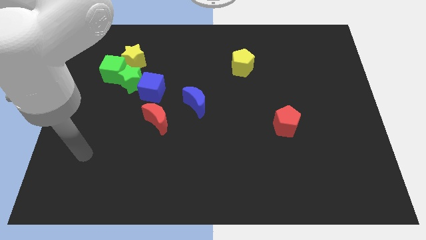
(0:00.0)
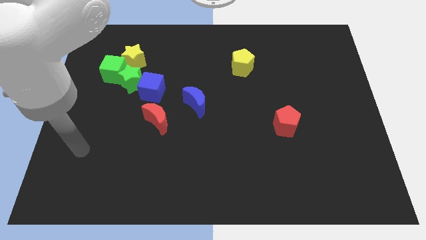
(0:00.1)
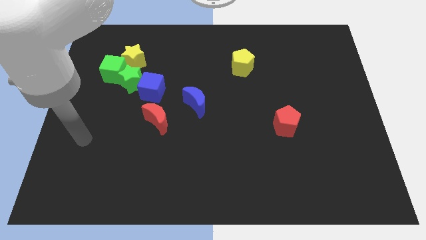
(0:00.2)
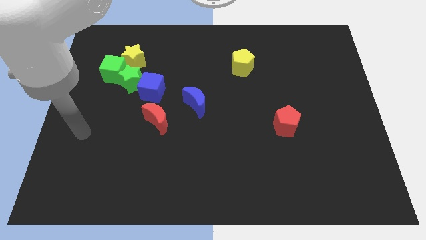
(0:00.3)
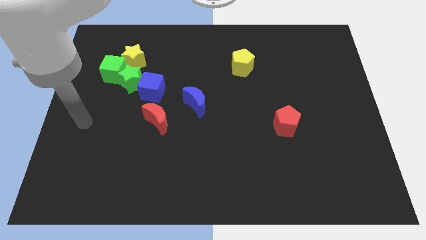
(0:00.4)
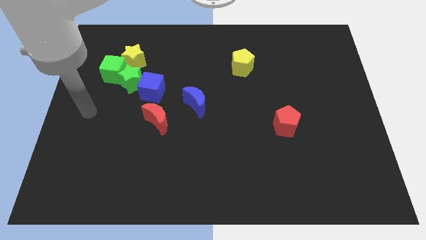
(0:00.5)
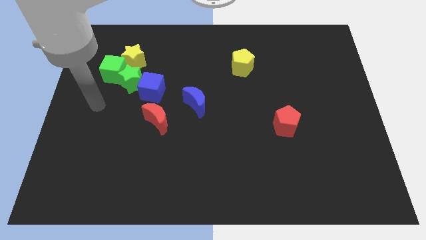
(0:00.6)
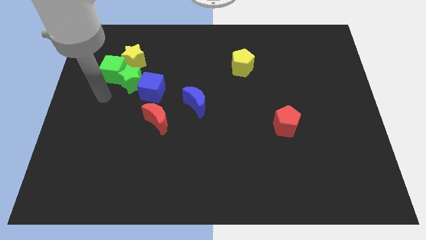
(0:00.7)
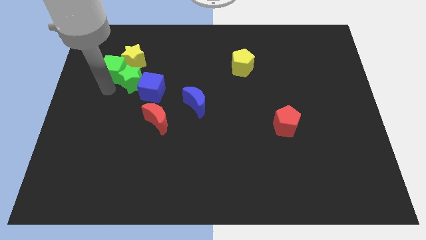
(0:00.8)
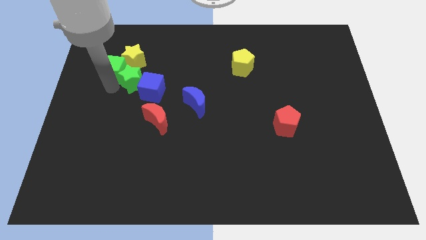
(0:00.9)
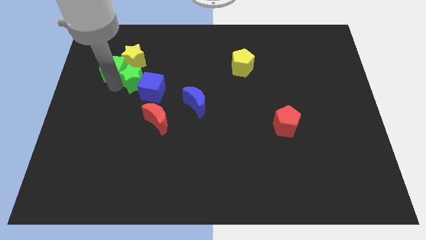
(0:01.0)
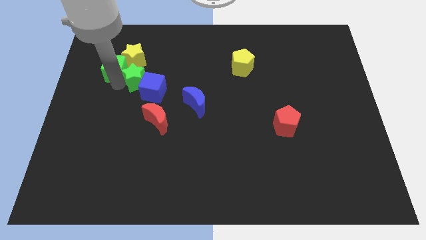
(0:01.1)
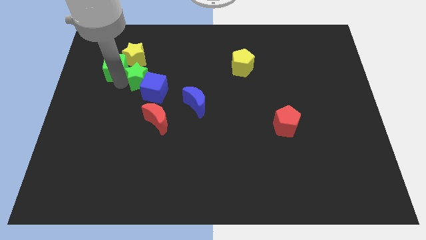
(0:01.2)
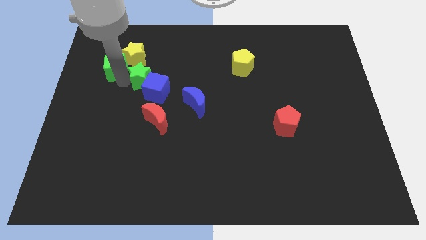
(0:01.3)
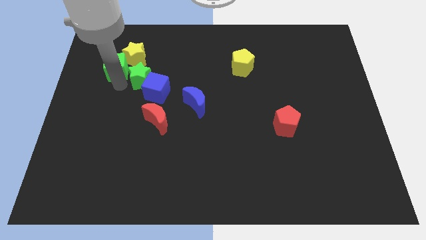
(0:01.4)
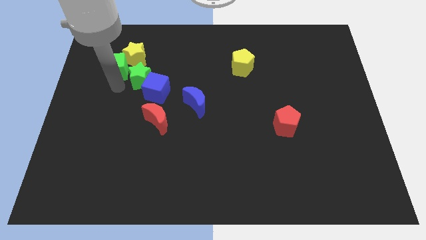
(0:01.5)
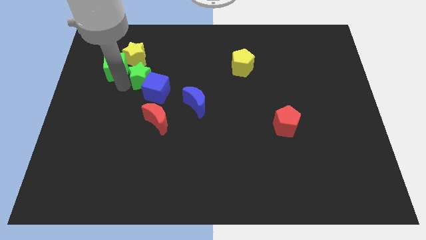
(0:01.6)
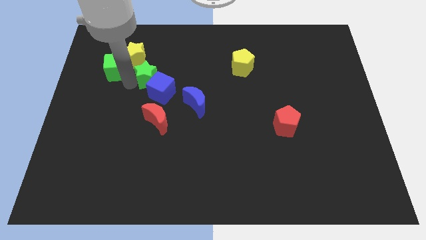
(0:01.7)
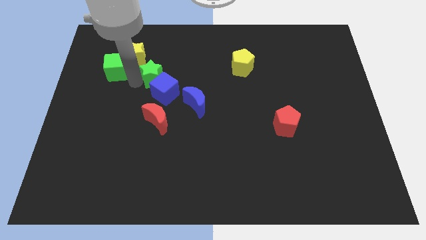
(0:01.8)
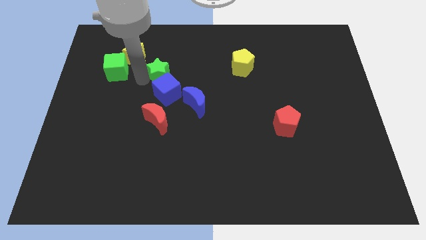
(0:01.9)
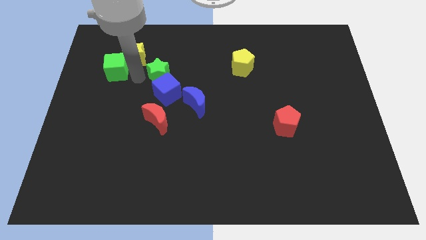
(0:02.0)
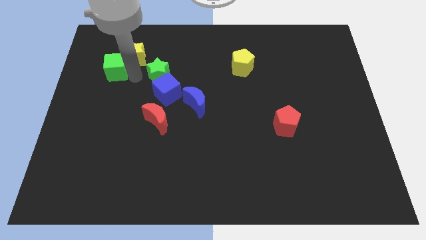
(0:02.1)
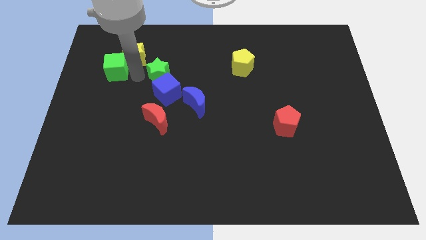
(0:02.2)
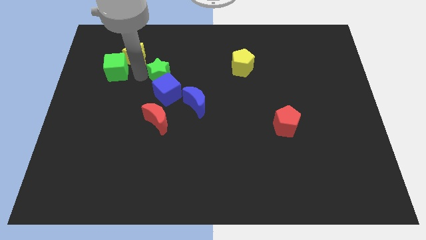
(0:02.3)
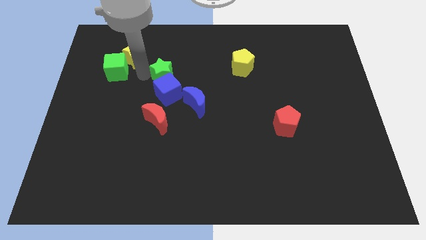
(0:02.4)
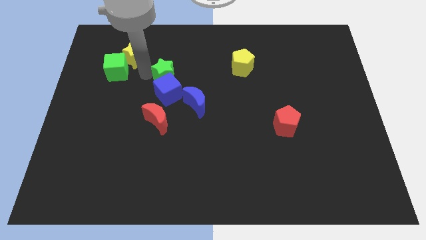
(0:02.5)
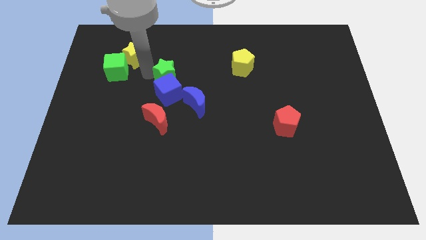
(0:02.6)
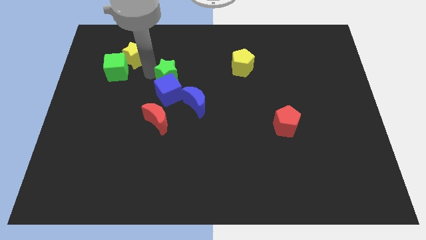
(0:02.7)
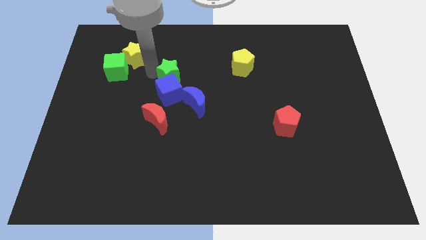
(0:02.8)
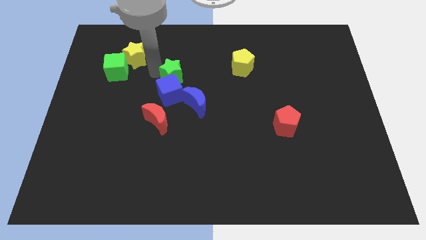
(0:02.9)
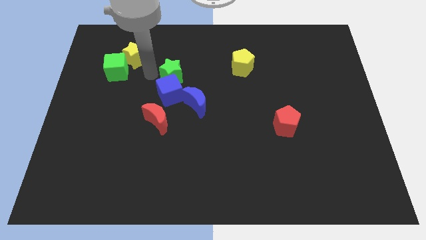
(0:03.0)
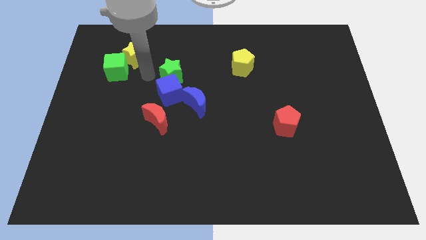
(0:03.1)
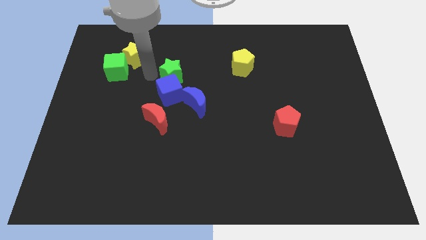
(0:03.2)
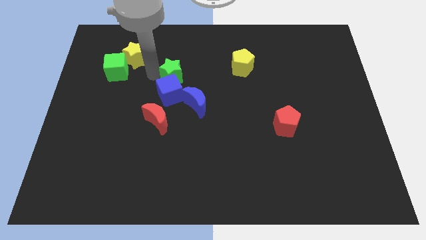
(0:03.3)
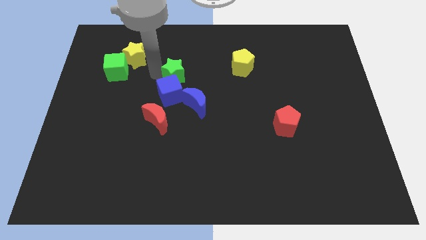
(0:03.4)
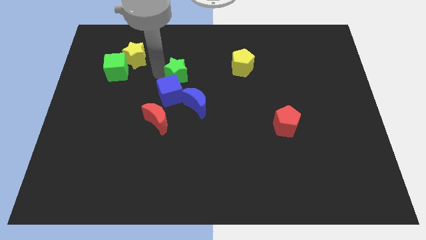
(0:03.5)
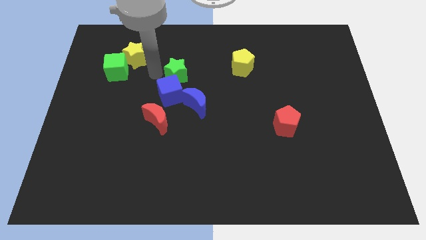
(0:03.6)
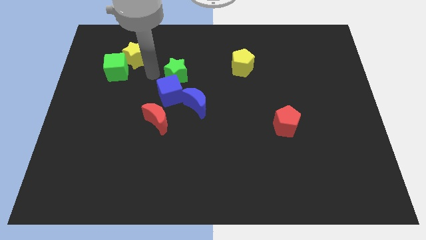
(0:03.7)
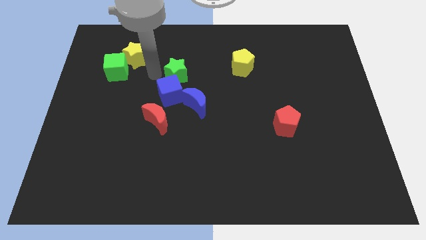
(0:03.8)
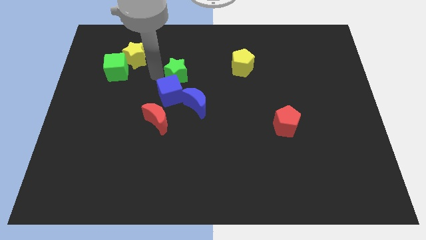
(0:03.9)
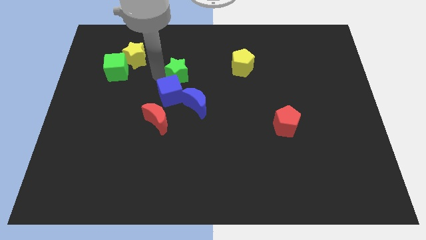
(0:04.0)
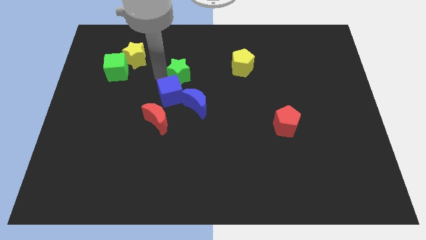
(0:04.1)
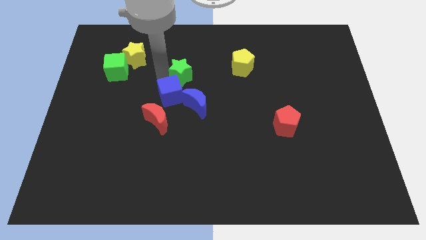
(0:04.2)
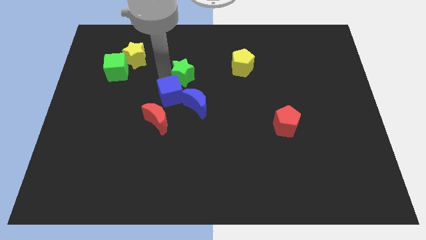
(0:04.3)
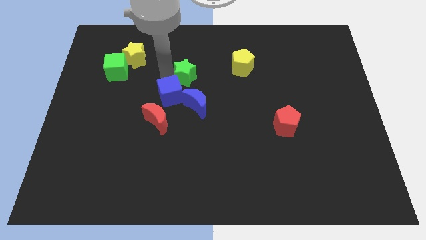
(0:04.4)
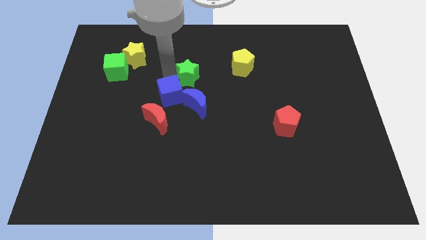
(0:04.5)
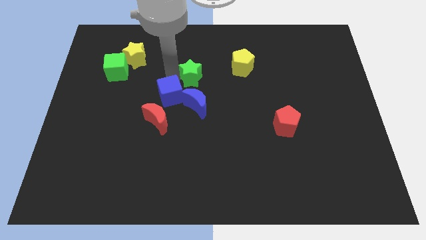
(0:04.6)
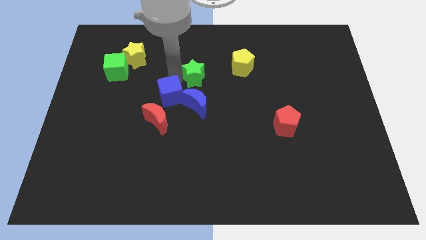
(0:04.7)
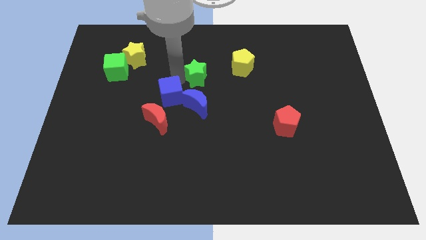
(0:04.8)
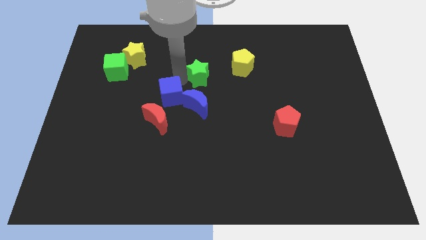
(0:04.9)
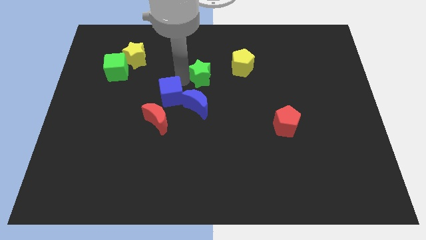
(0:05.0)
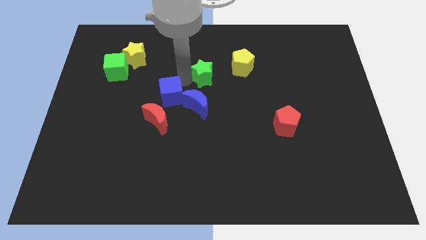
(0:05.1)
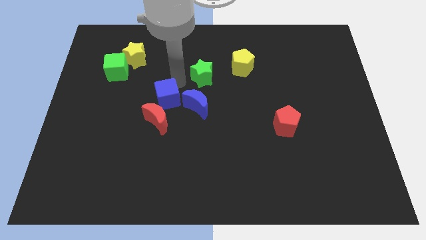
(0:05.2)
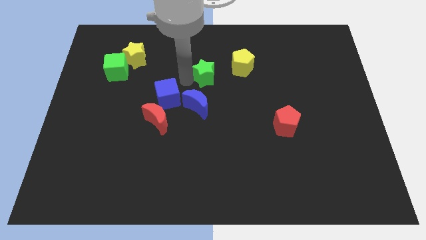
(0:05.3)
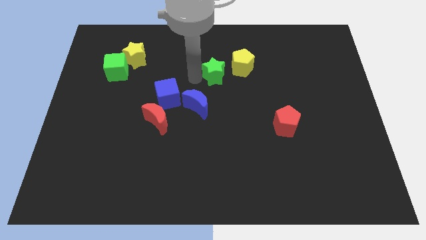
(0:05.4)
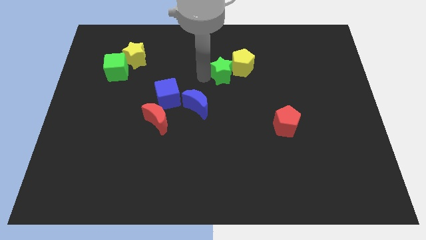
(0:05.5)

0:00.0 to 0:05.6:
slide the green star close to the yellow pentagon

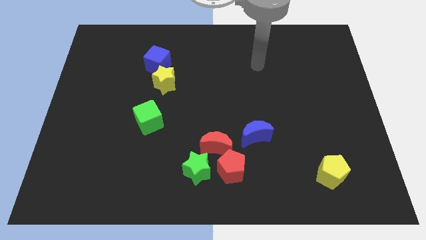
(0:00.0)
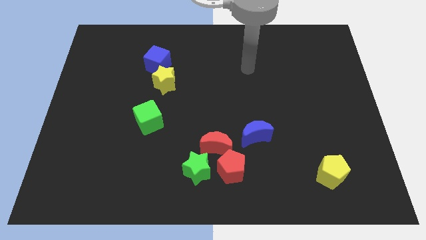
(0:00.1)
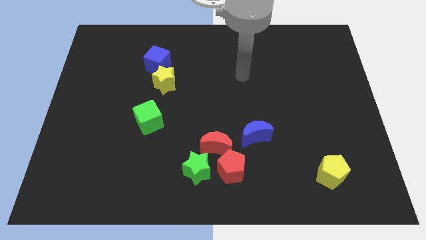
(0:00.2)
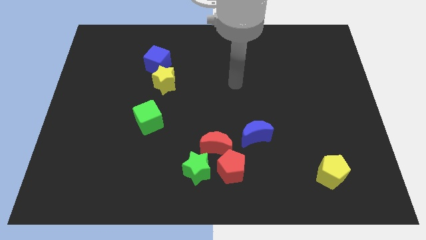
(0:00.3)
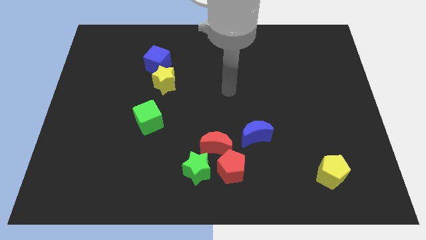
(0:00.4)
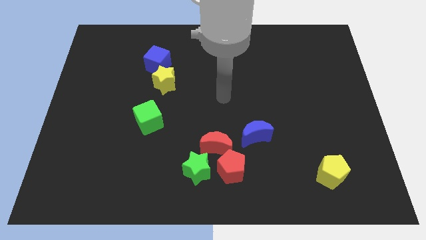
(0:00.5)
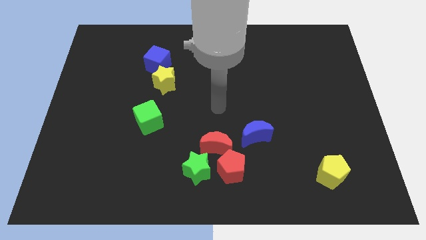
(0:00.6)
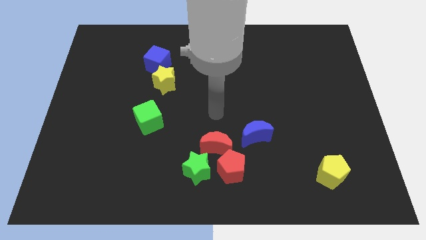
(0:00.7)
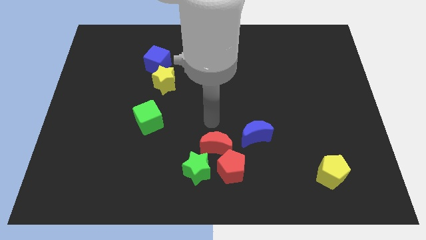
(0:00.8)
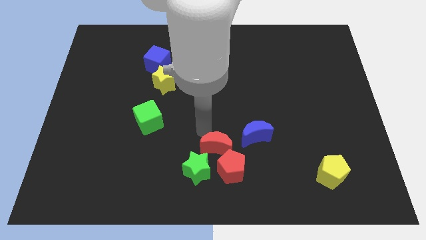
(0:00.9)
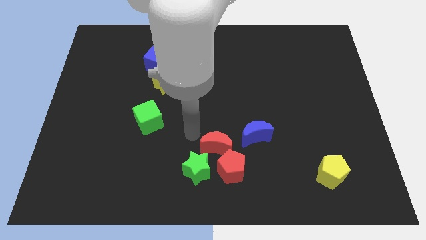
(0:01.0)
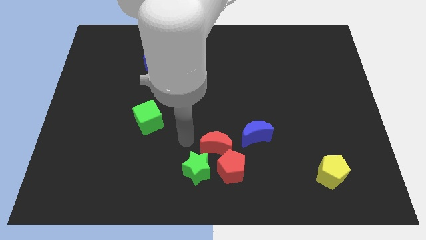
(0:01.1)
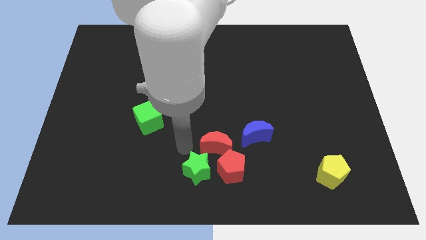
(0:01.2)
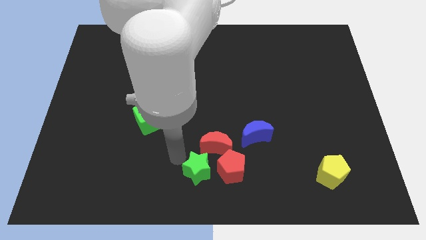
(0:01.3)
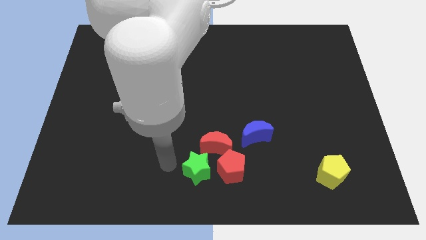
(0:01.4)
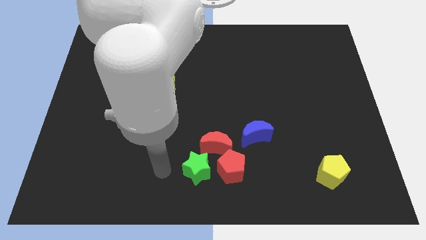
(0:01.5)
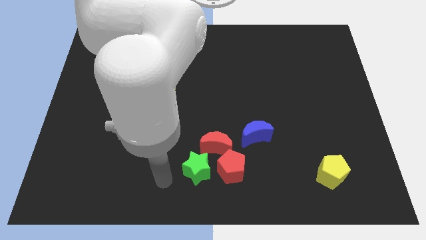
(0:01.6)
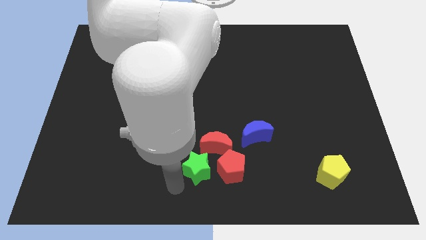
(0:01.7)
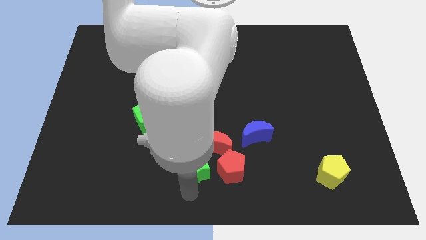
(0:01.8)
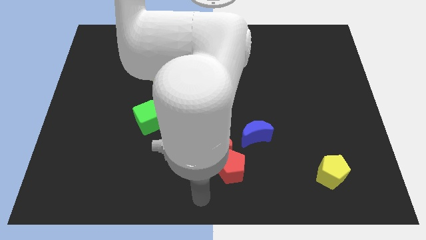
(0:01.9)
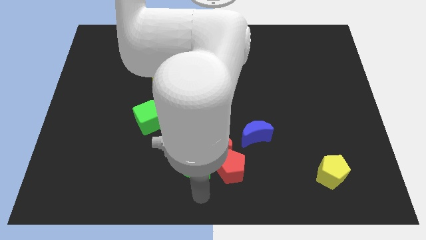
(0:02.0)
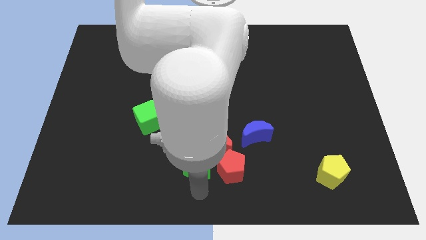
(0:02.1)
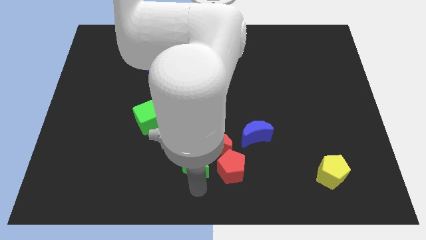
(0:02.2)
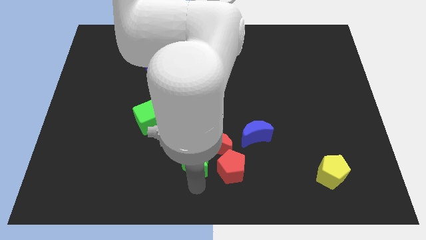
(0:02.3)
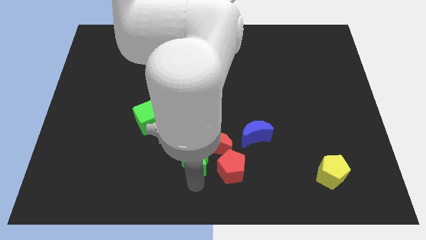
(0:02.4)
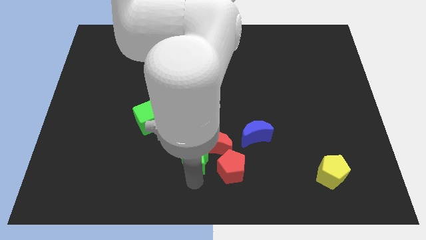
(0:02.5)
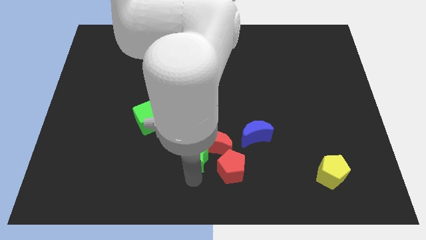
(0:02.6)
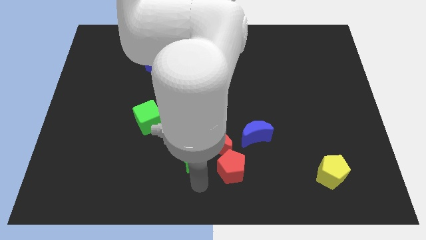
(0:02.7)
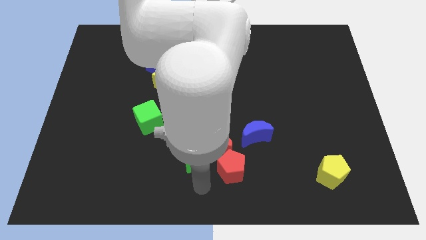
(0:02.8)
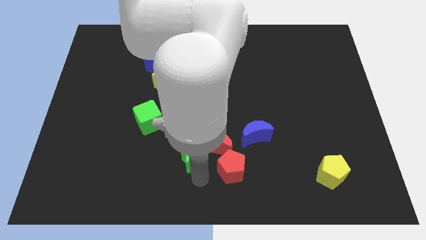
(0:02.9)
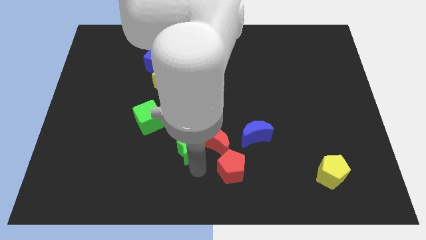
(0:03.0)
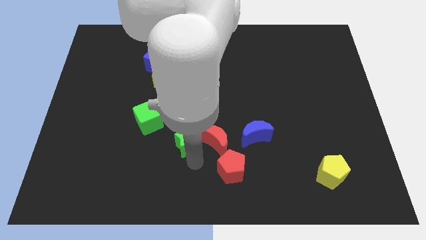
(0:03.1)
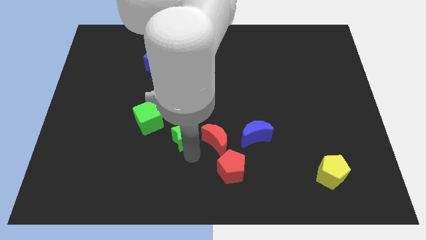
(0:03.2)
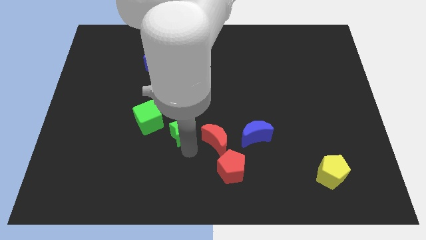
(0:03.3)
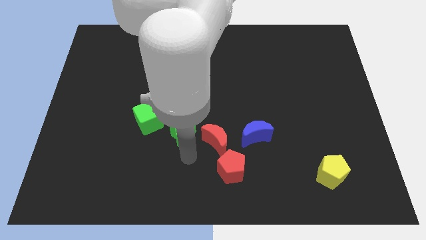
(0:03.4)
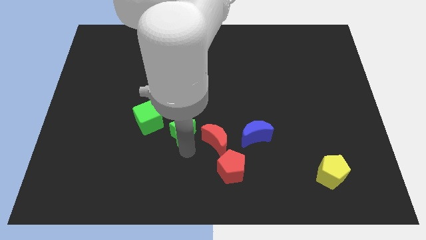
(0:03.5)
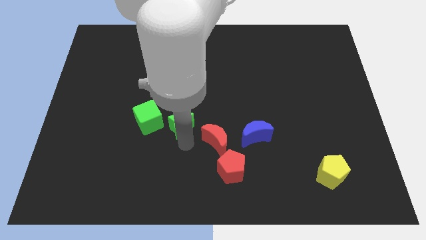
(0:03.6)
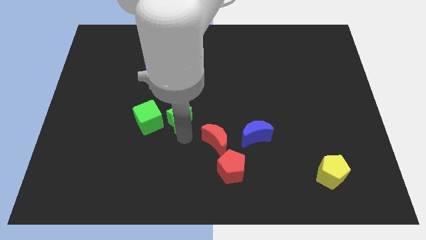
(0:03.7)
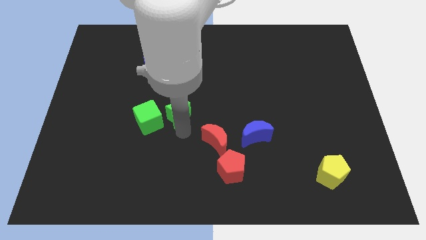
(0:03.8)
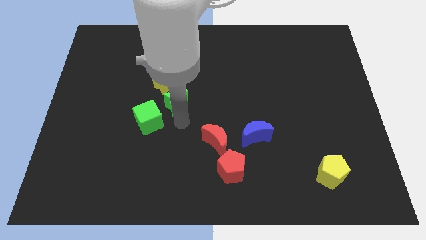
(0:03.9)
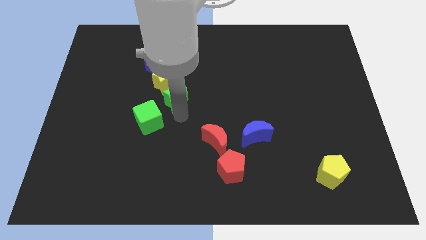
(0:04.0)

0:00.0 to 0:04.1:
move the green star to the yellow star
